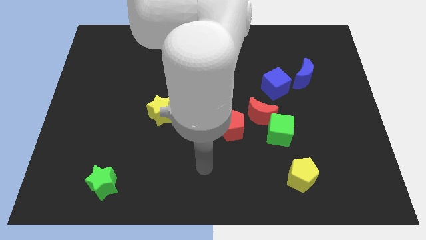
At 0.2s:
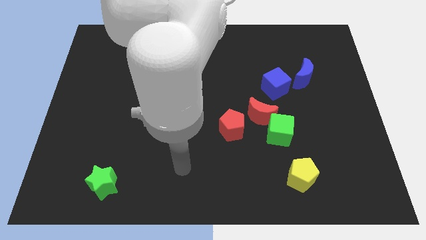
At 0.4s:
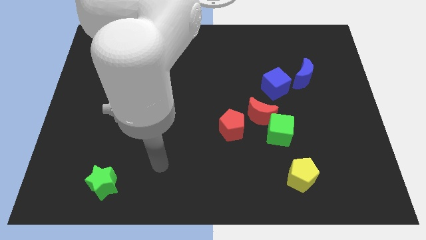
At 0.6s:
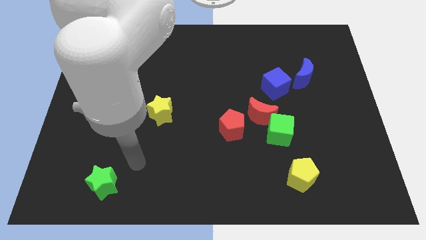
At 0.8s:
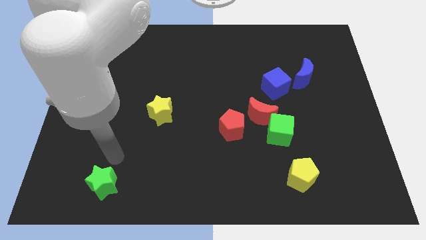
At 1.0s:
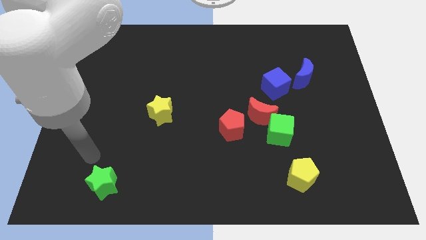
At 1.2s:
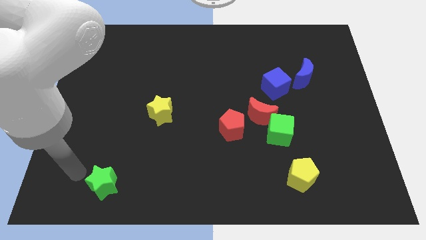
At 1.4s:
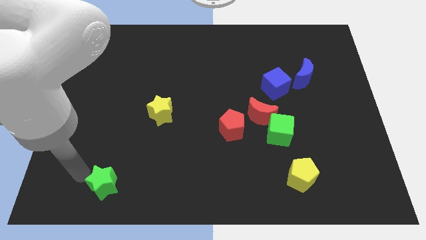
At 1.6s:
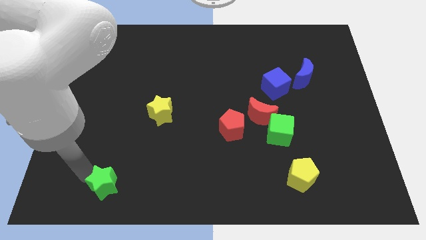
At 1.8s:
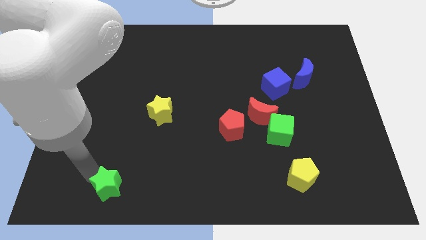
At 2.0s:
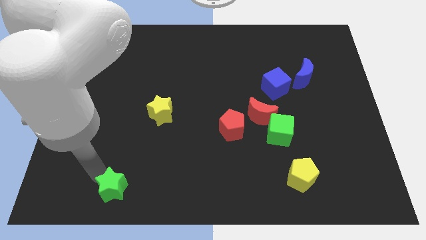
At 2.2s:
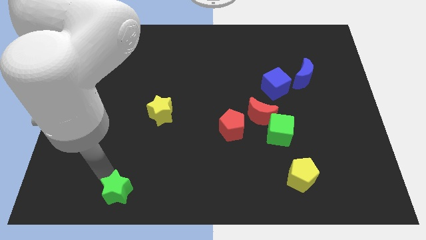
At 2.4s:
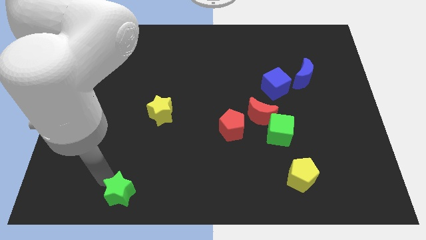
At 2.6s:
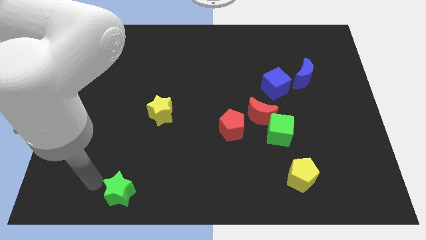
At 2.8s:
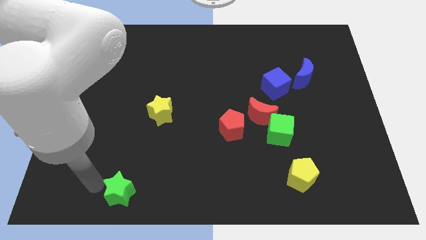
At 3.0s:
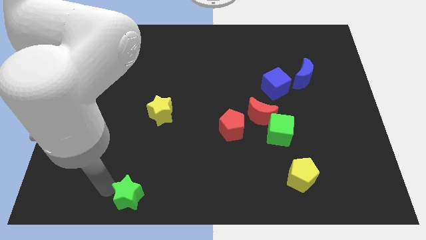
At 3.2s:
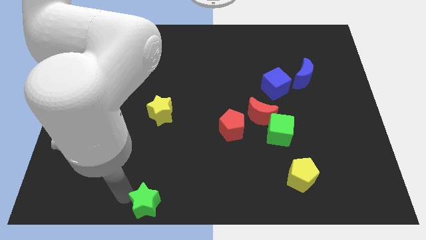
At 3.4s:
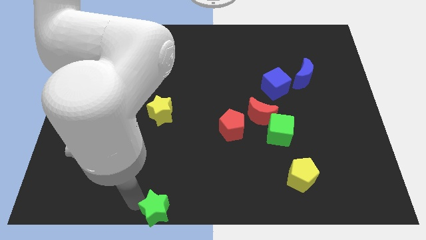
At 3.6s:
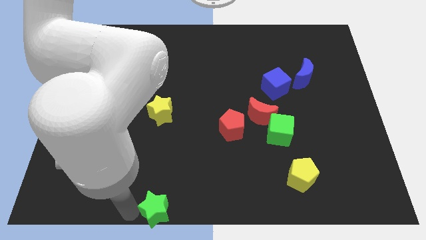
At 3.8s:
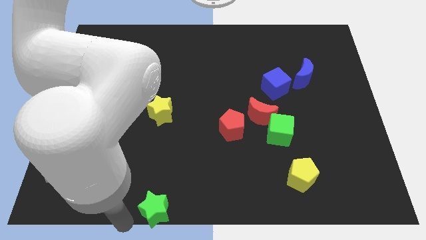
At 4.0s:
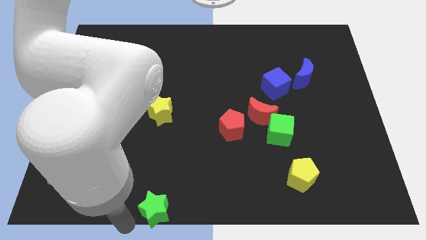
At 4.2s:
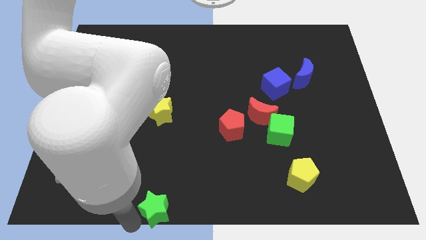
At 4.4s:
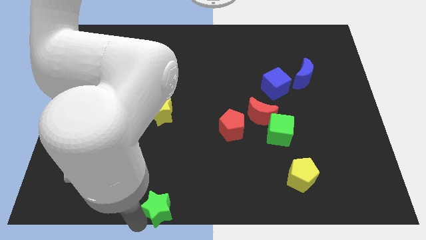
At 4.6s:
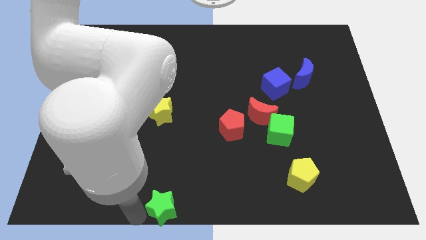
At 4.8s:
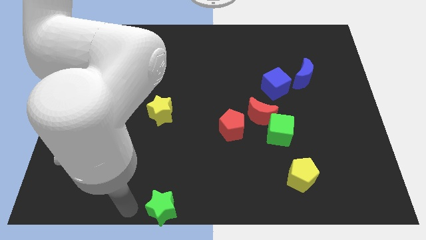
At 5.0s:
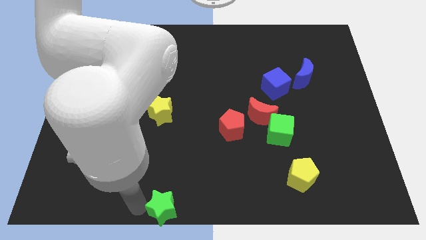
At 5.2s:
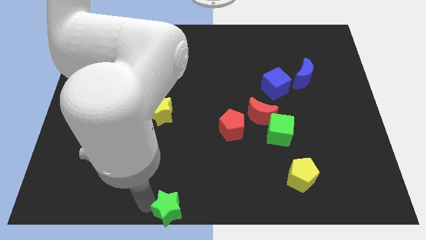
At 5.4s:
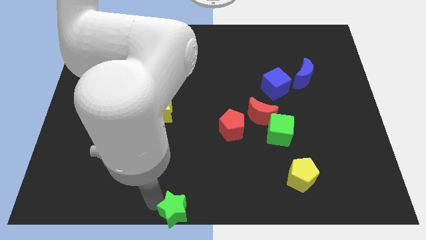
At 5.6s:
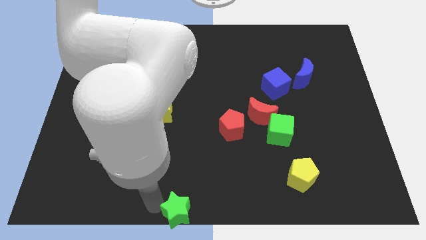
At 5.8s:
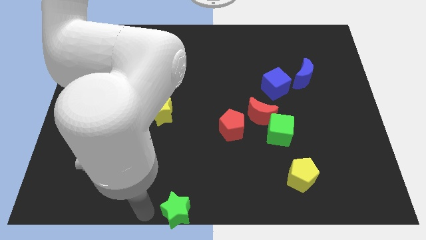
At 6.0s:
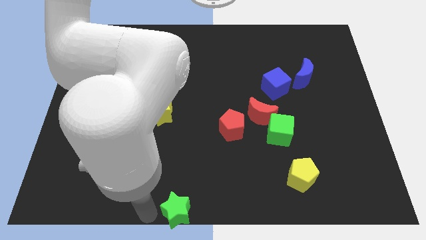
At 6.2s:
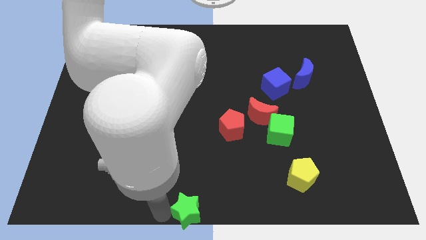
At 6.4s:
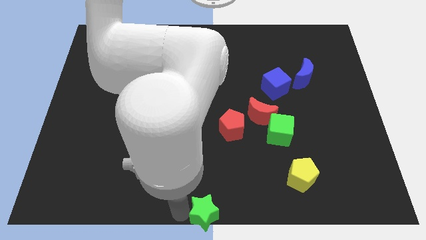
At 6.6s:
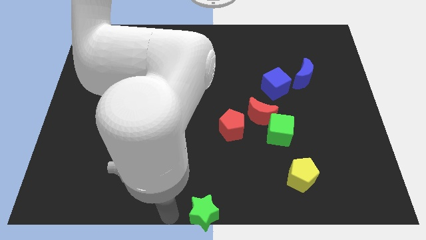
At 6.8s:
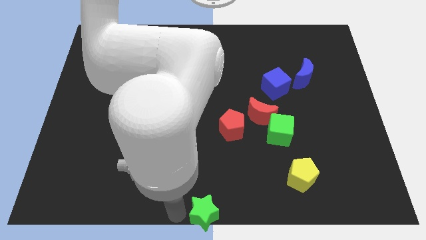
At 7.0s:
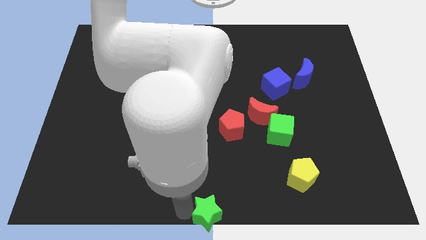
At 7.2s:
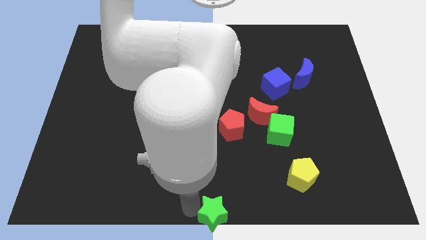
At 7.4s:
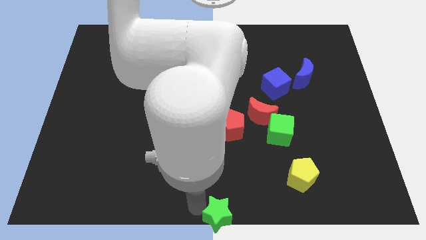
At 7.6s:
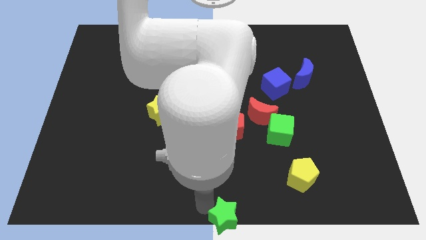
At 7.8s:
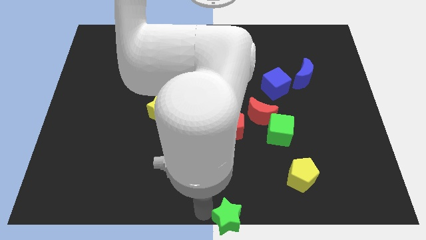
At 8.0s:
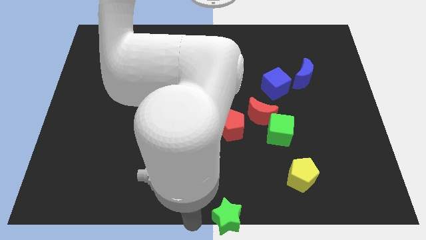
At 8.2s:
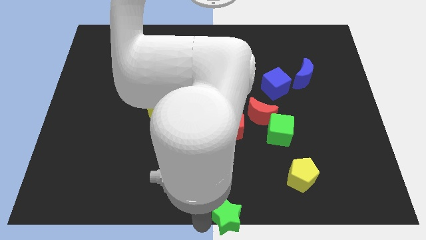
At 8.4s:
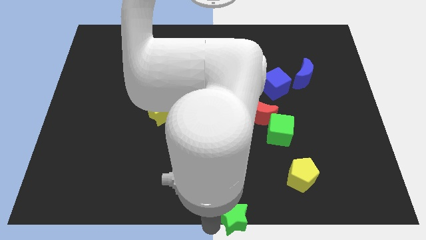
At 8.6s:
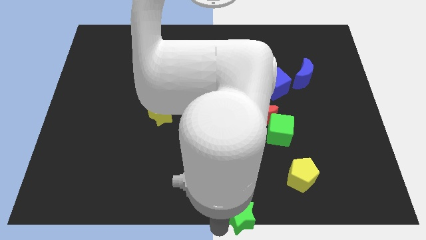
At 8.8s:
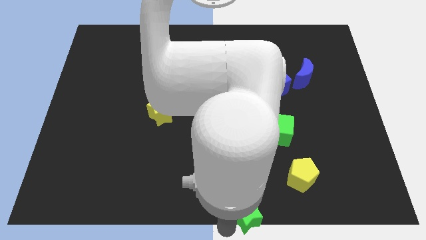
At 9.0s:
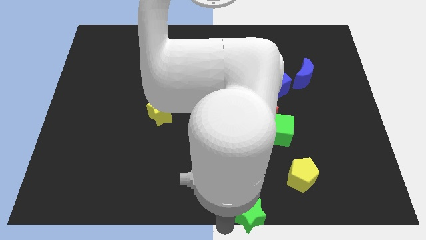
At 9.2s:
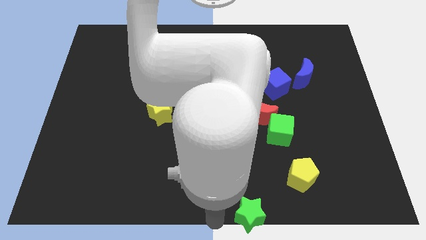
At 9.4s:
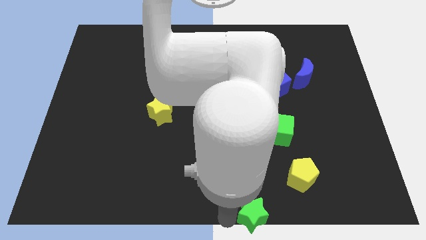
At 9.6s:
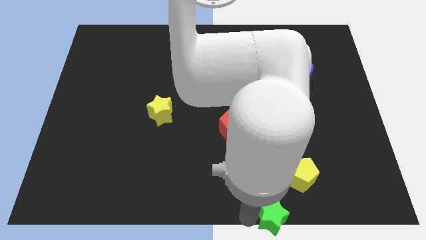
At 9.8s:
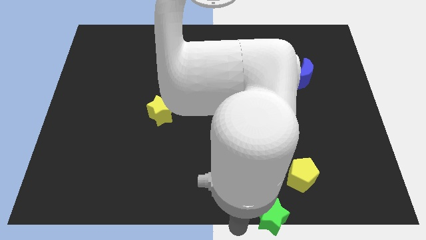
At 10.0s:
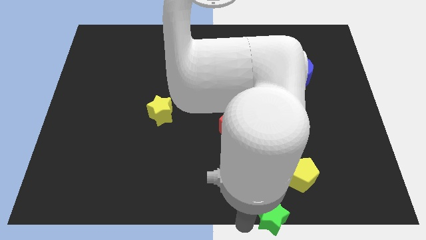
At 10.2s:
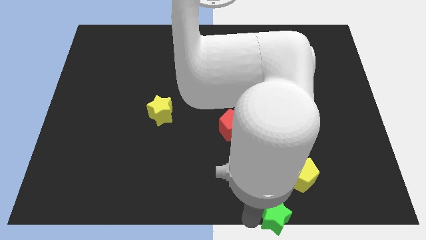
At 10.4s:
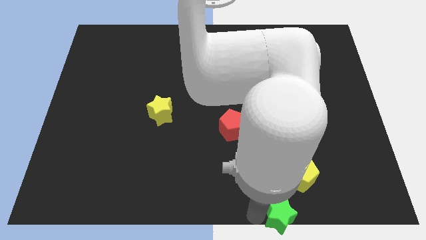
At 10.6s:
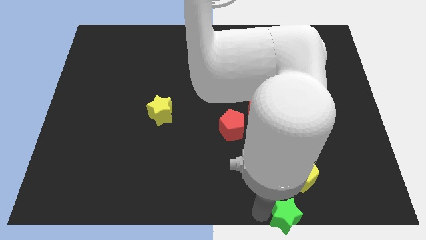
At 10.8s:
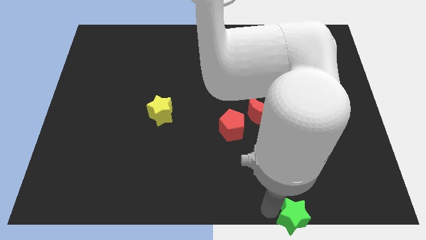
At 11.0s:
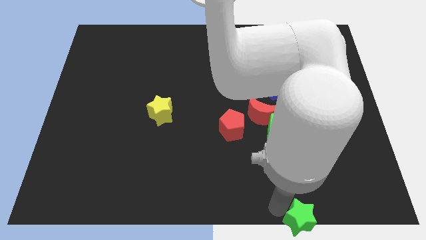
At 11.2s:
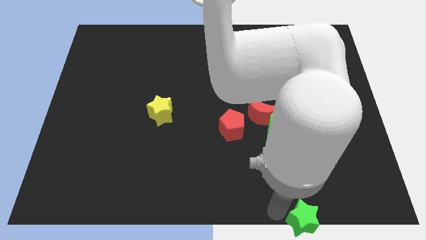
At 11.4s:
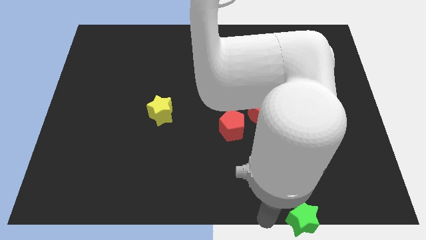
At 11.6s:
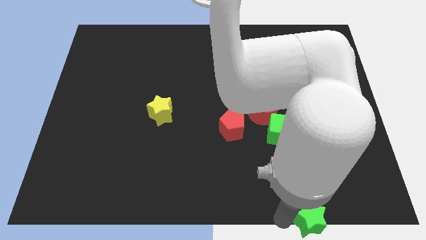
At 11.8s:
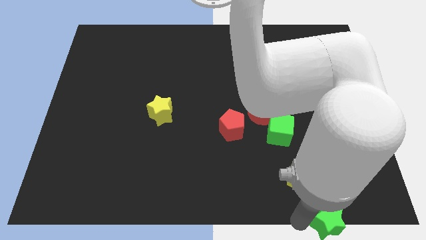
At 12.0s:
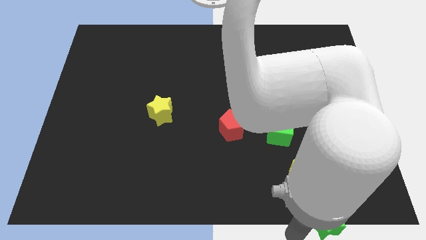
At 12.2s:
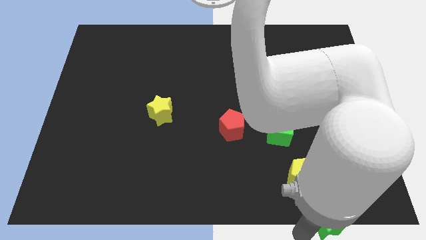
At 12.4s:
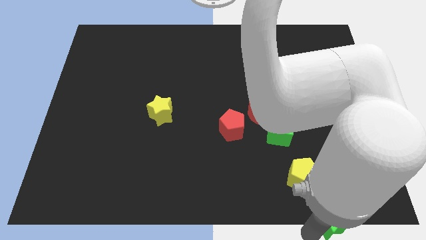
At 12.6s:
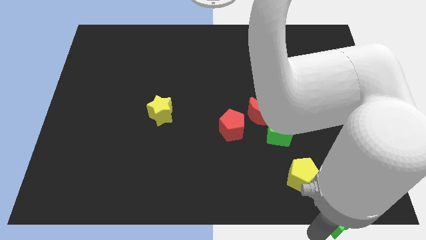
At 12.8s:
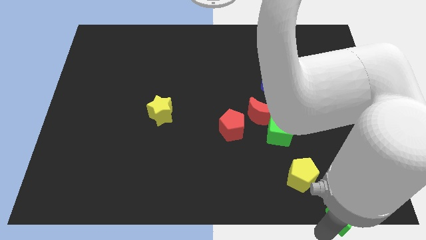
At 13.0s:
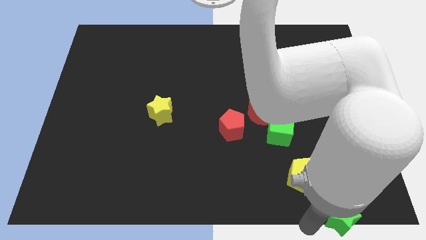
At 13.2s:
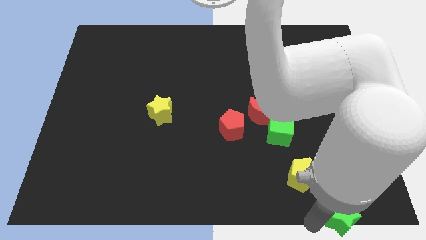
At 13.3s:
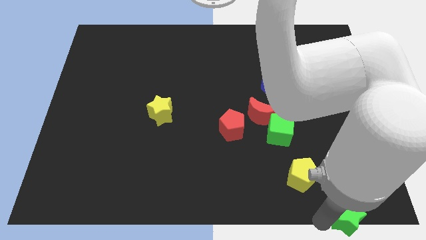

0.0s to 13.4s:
slide the green star to the bottom right corner
